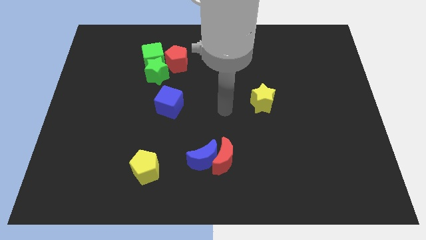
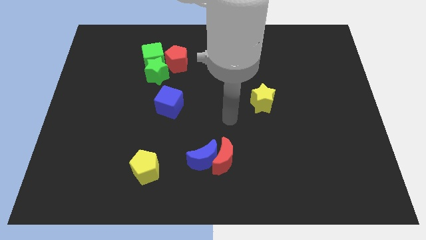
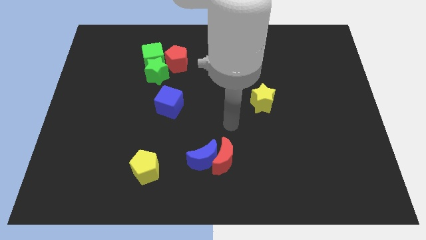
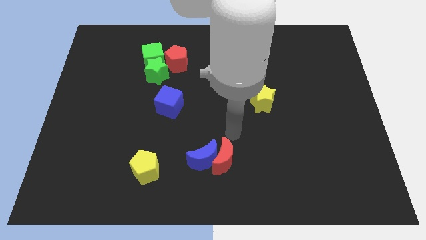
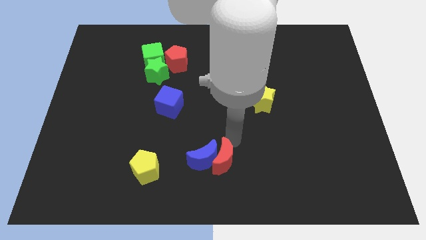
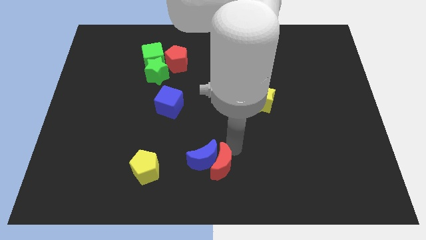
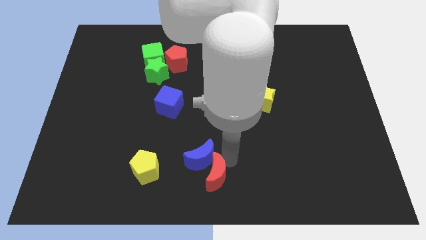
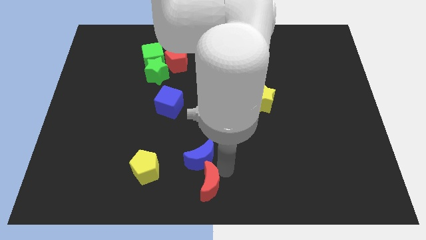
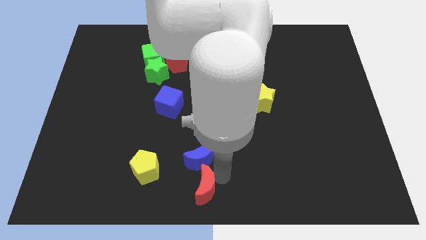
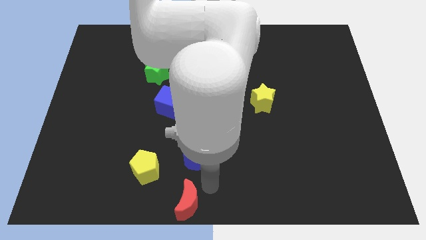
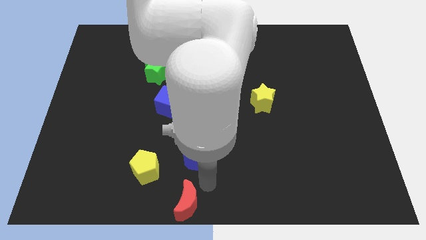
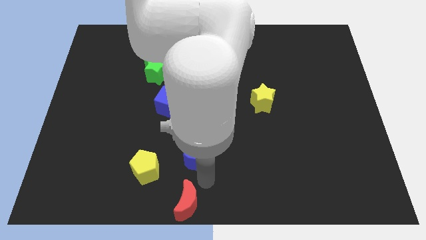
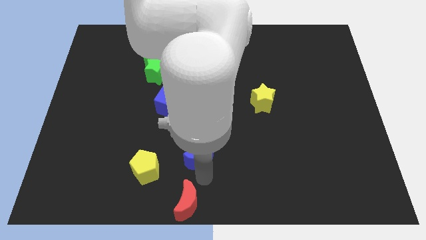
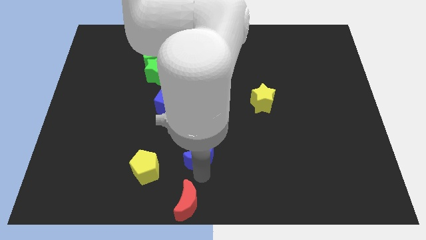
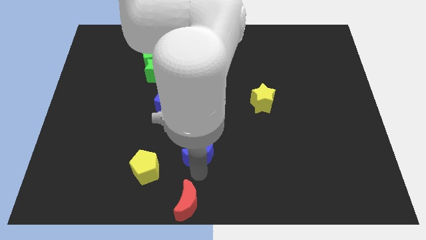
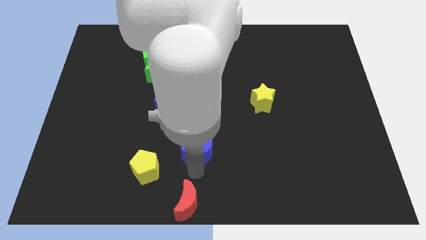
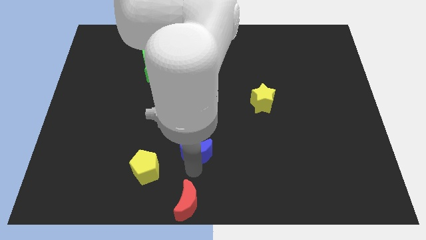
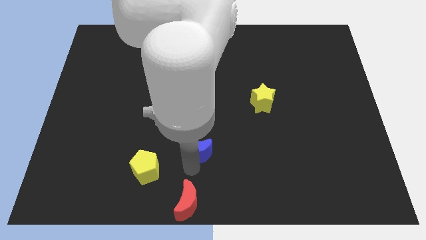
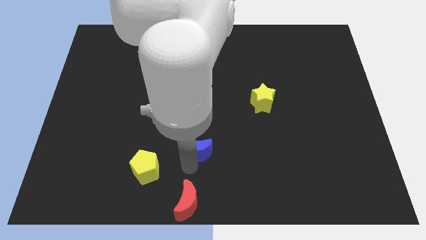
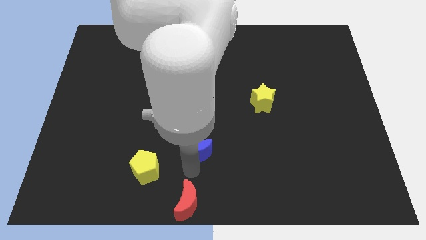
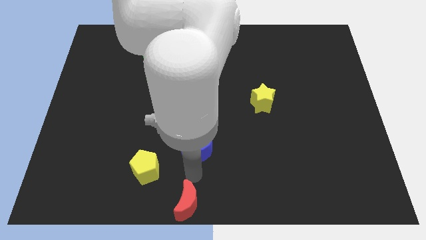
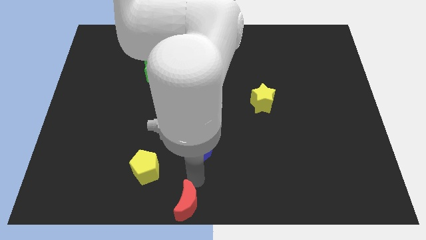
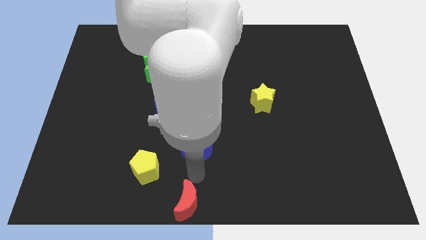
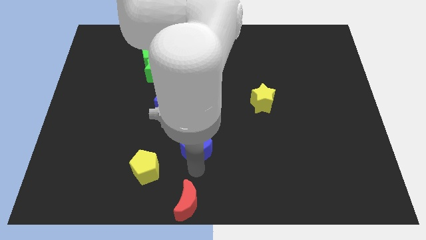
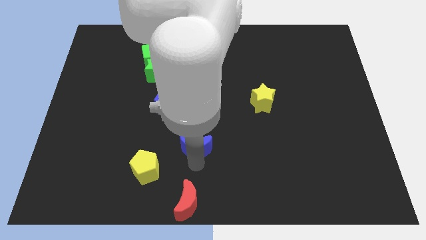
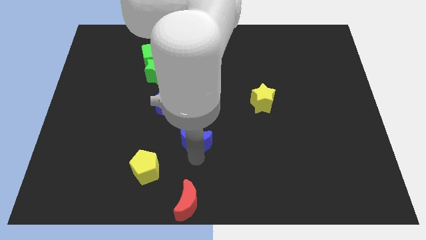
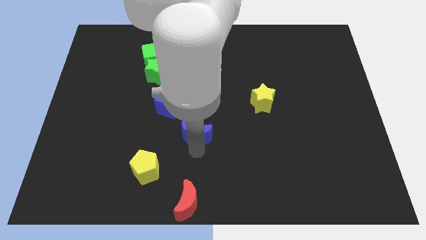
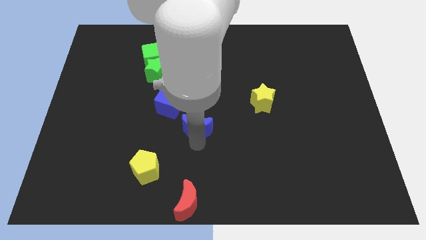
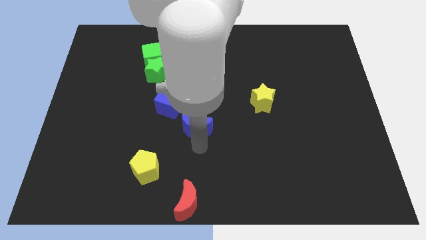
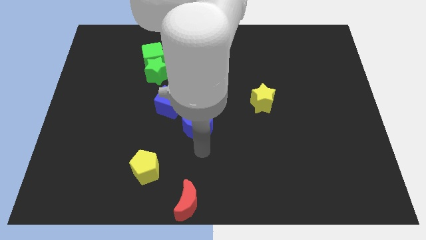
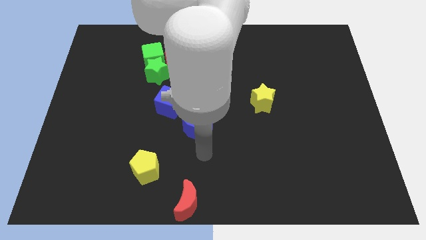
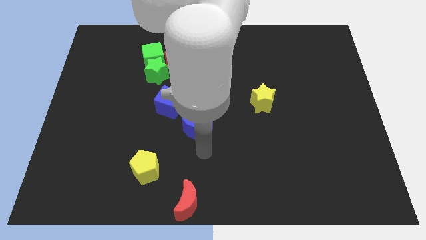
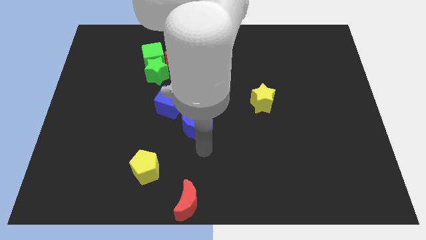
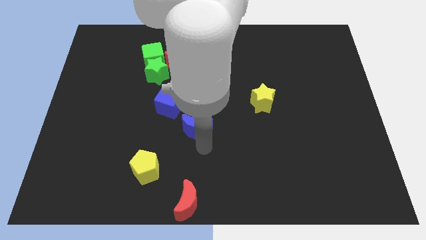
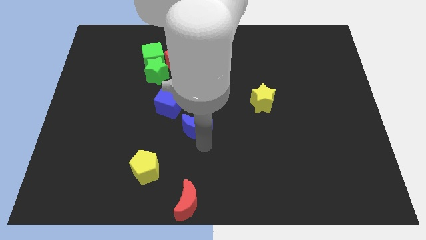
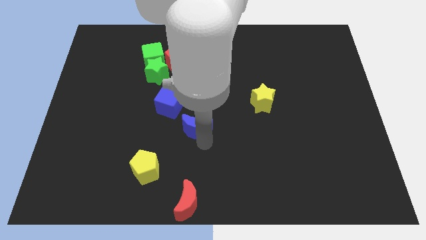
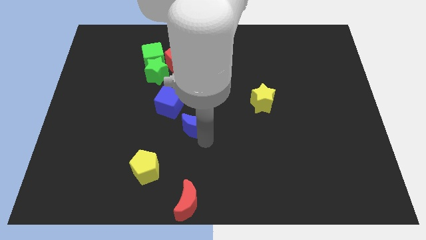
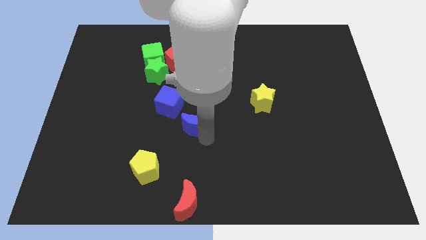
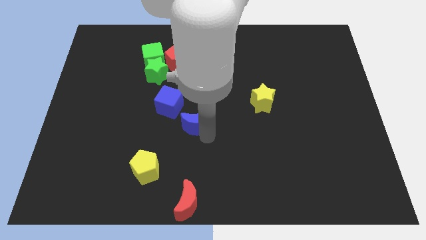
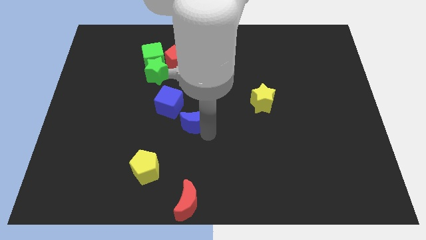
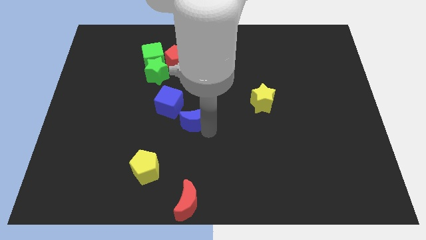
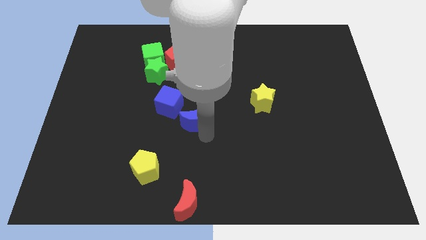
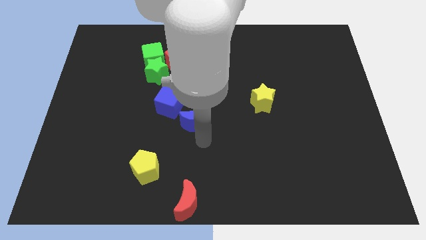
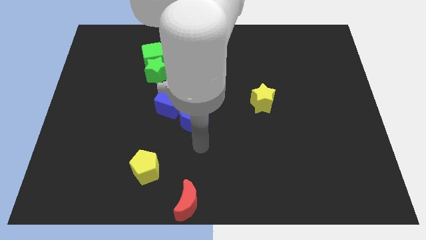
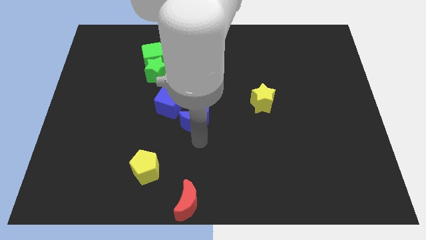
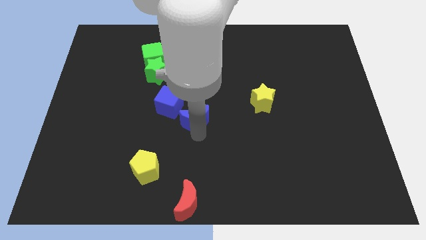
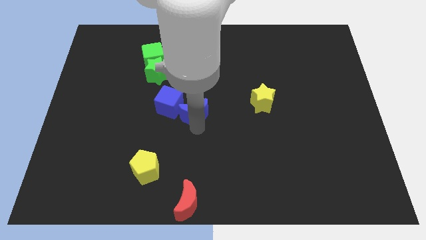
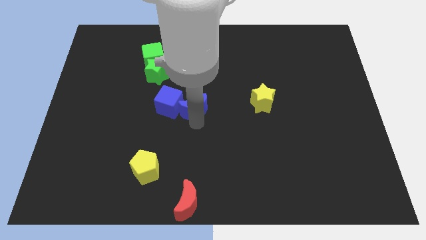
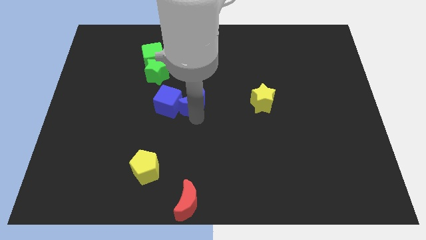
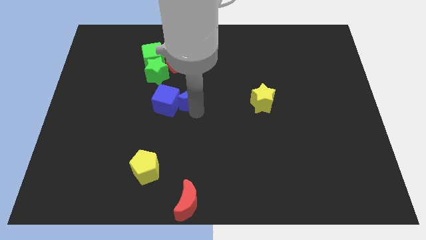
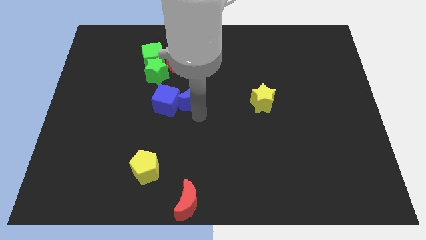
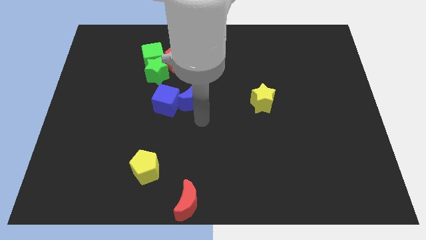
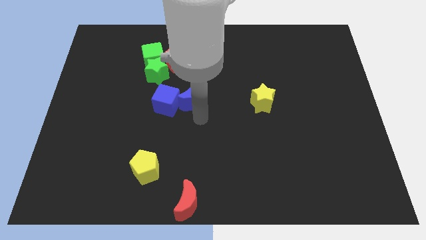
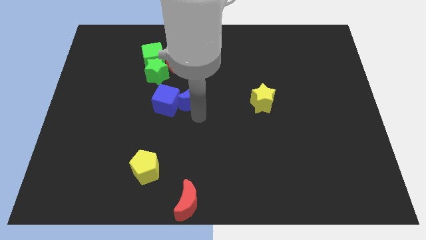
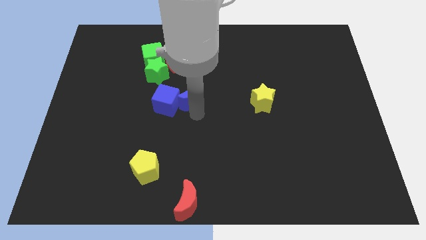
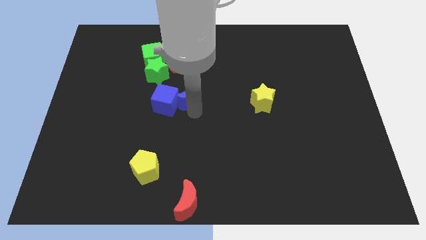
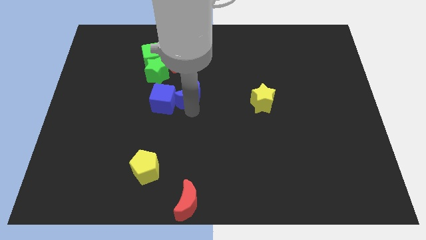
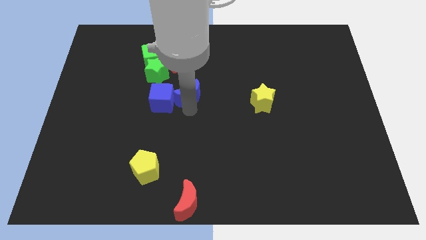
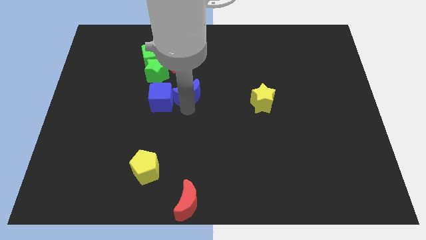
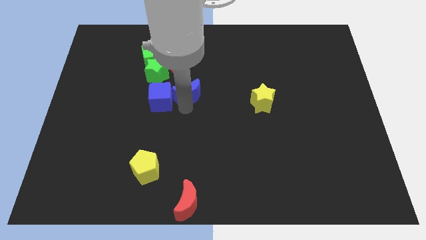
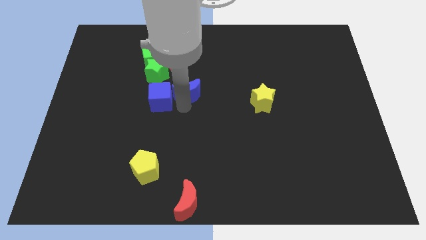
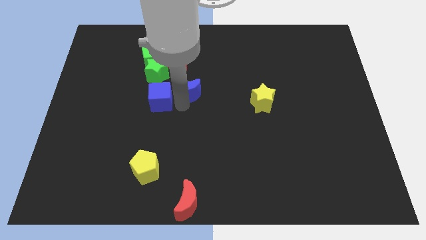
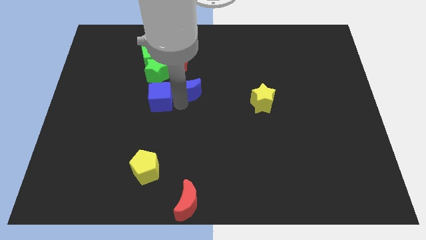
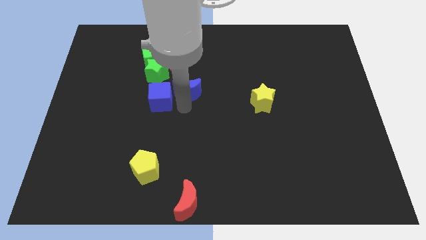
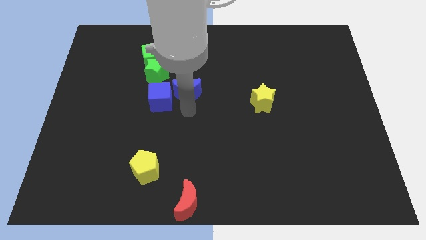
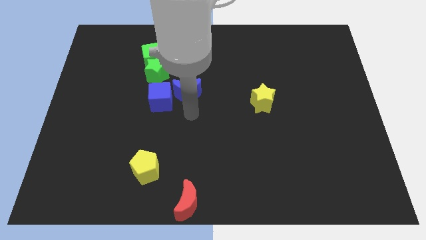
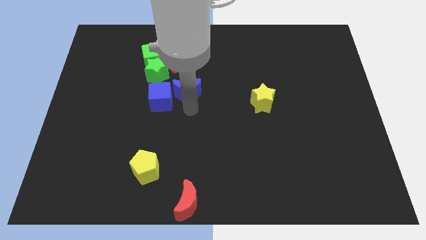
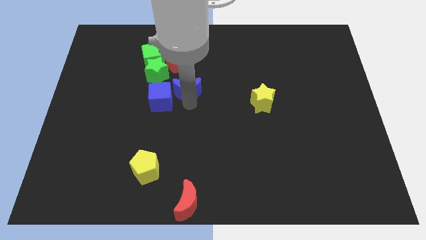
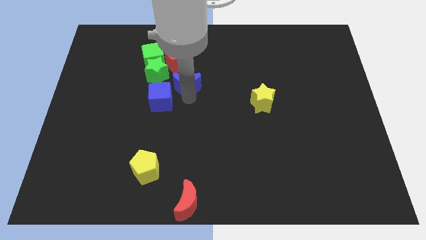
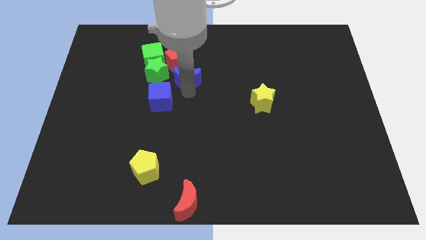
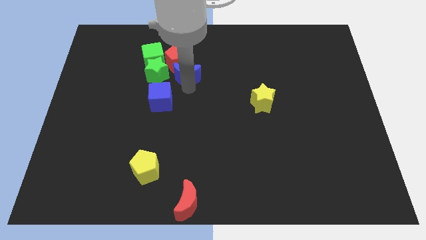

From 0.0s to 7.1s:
push the blue moon towards the red pentagon
